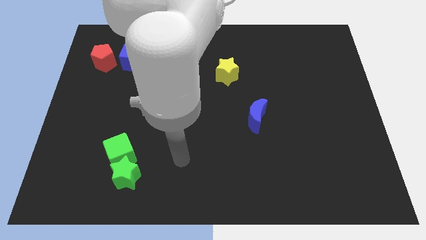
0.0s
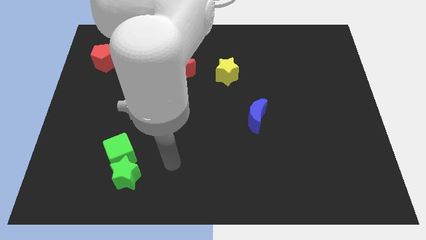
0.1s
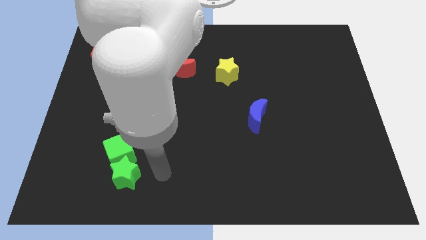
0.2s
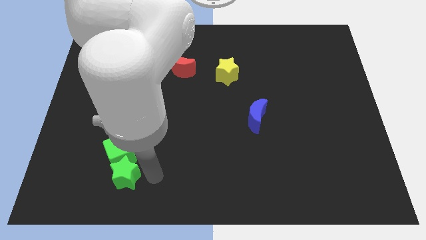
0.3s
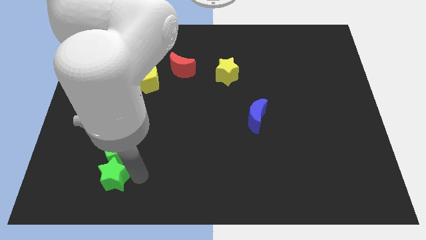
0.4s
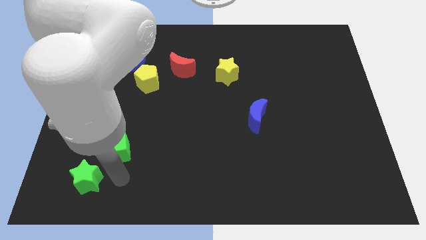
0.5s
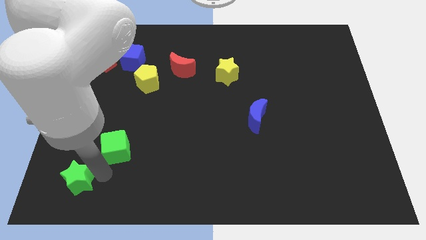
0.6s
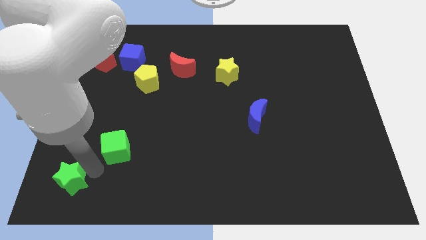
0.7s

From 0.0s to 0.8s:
separate the green cube from the green star

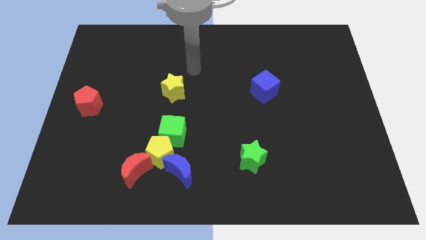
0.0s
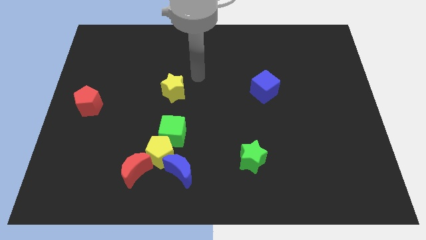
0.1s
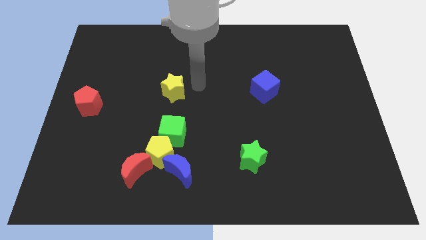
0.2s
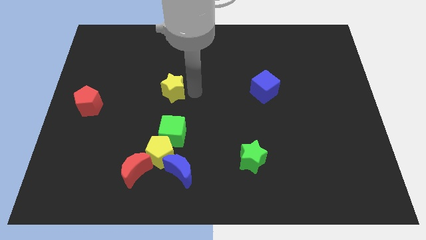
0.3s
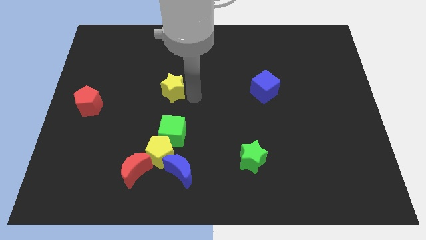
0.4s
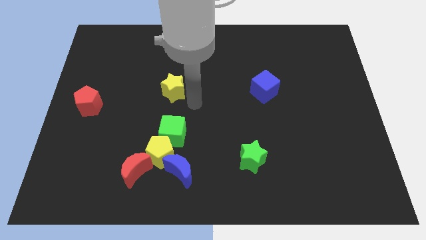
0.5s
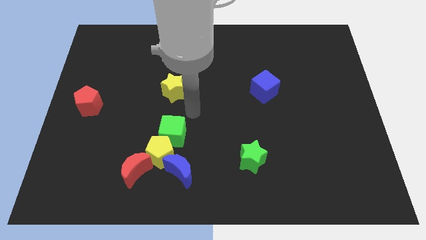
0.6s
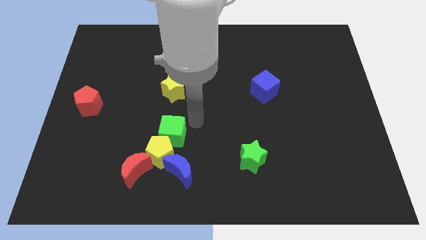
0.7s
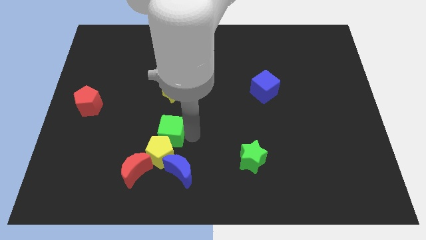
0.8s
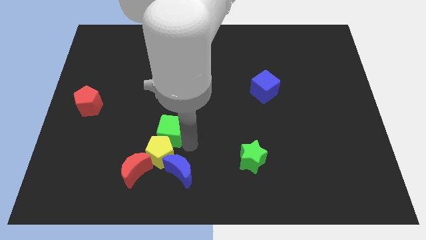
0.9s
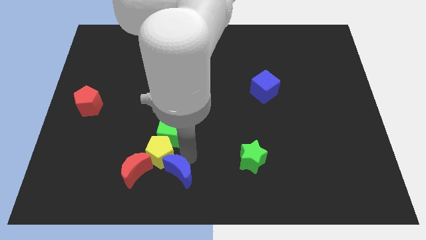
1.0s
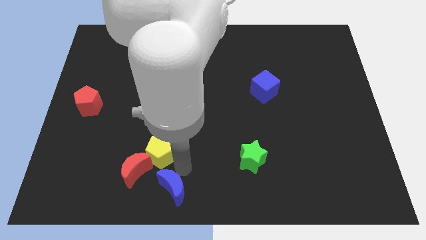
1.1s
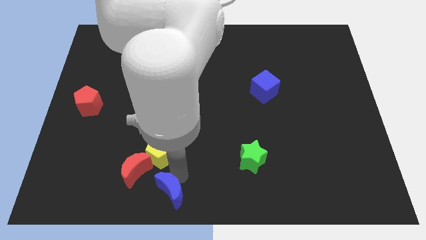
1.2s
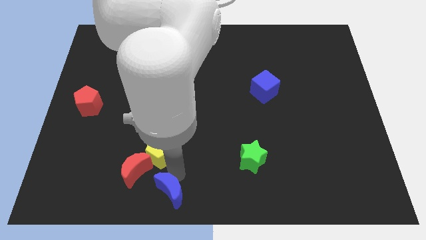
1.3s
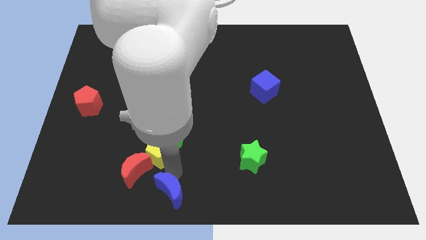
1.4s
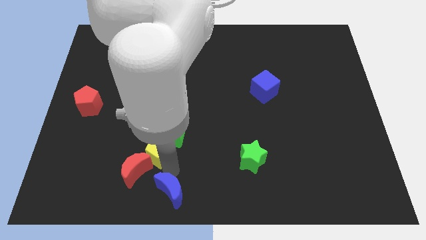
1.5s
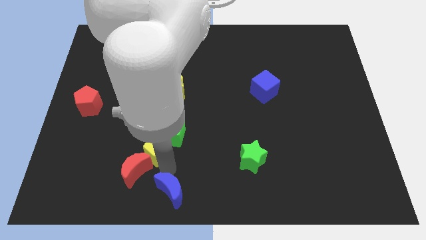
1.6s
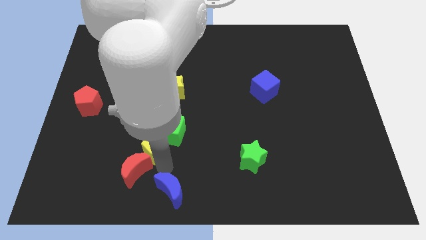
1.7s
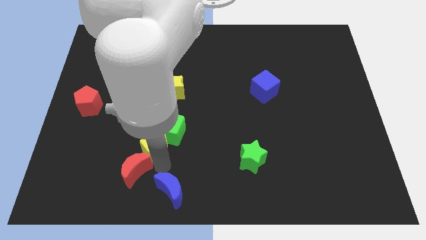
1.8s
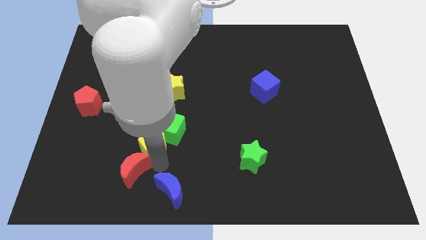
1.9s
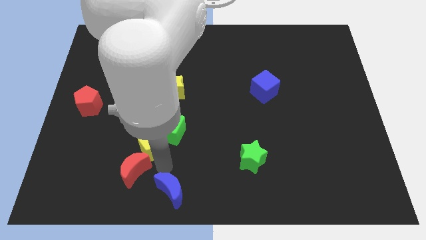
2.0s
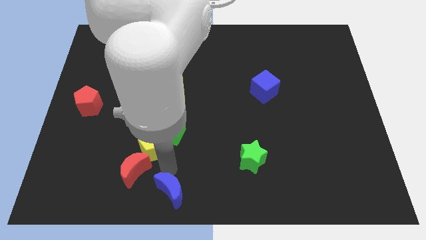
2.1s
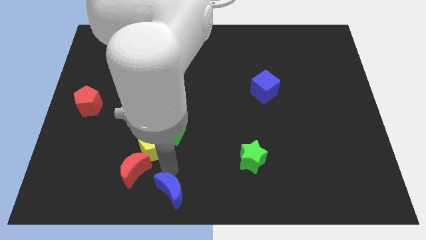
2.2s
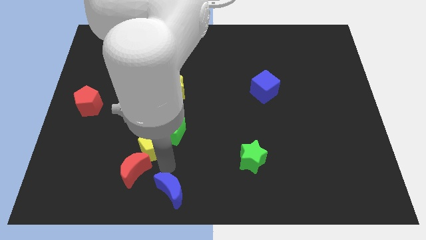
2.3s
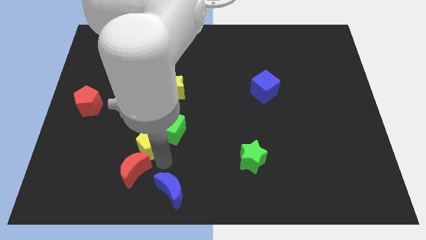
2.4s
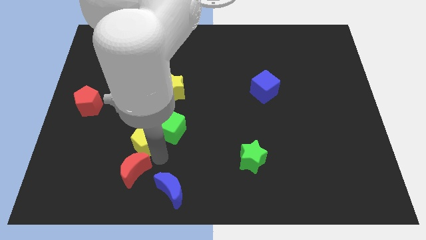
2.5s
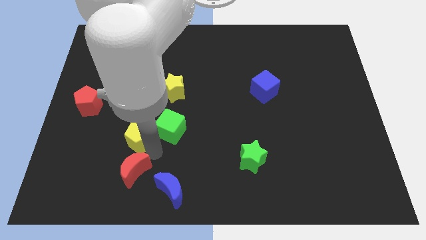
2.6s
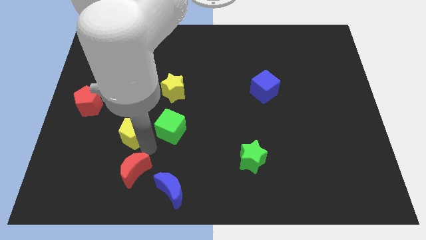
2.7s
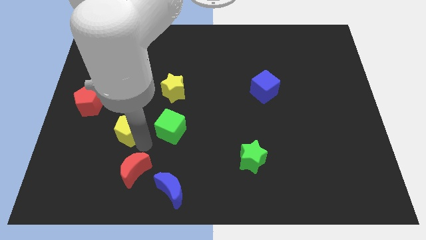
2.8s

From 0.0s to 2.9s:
move the yellow pentagon away from the green cube, blue moon, and red moon

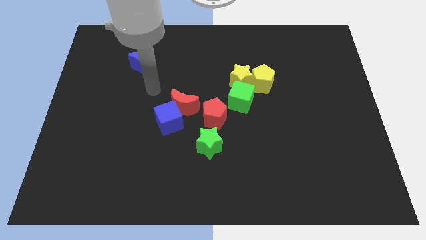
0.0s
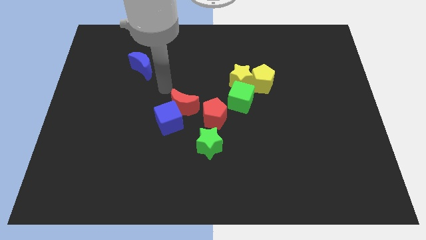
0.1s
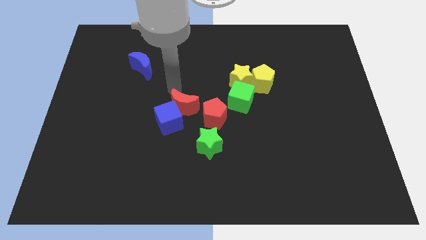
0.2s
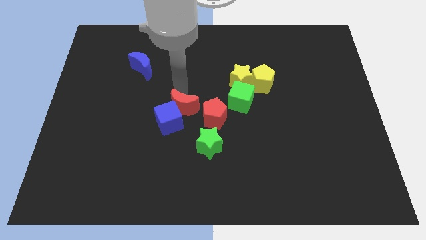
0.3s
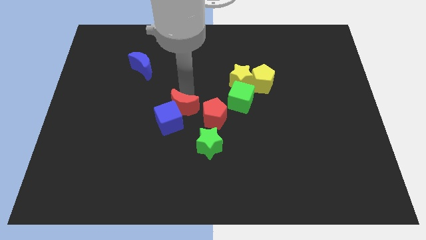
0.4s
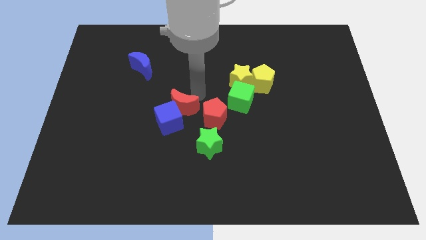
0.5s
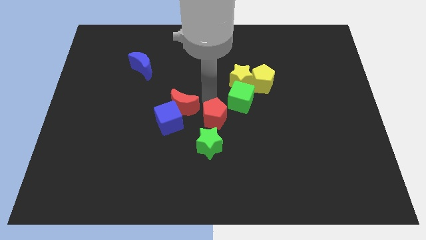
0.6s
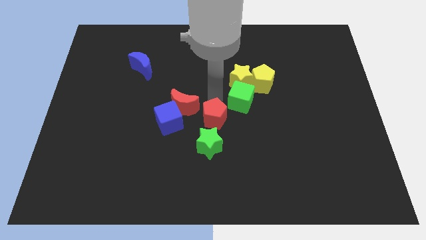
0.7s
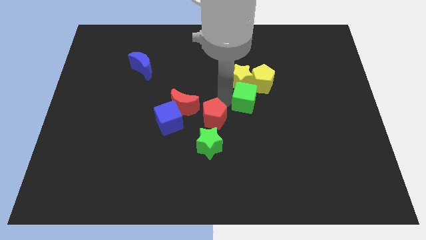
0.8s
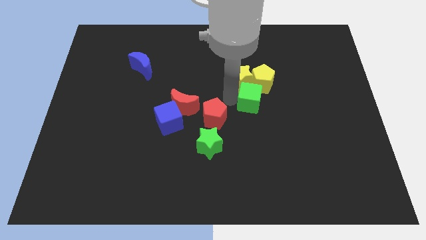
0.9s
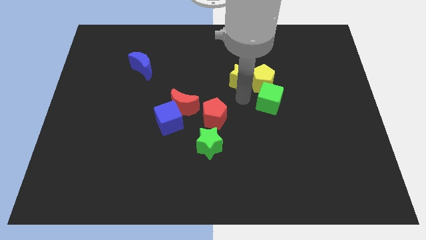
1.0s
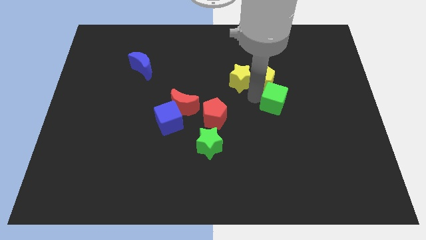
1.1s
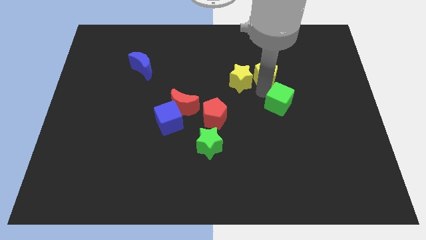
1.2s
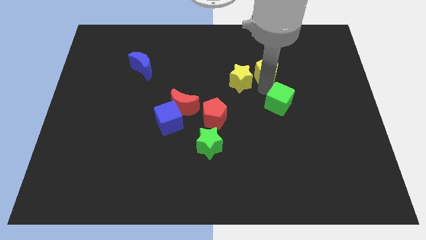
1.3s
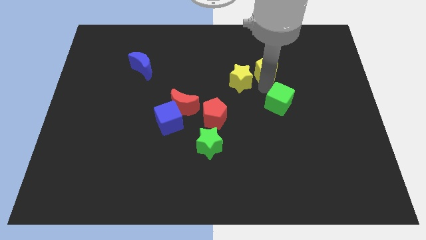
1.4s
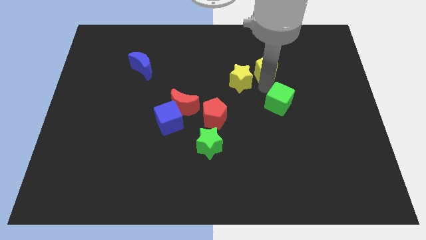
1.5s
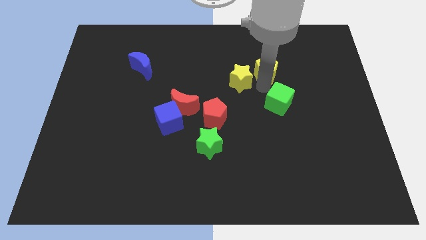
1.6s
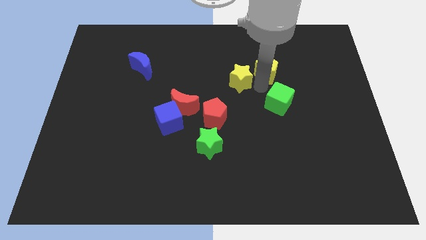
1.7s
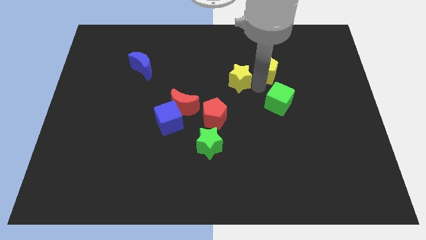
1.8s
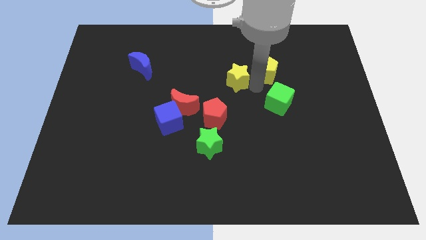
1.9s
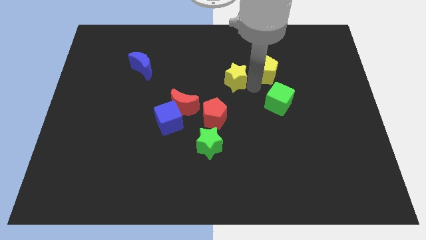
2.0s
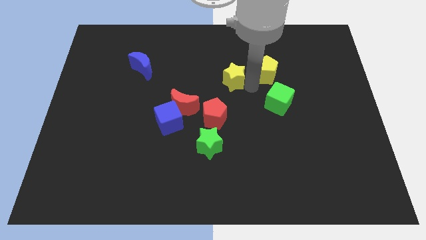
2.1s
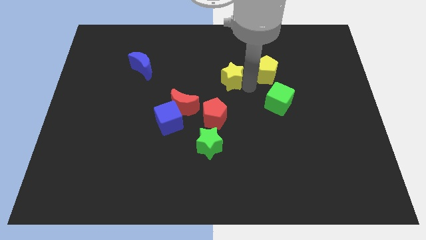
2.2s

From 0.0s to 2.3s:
move the yellow star away from the yellow pentagon and green cube

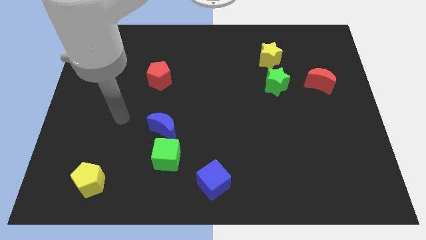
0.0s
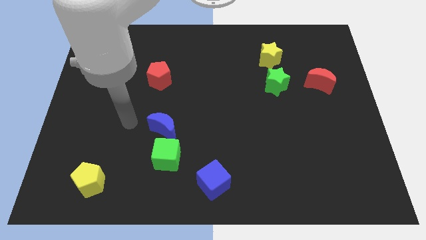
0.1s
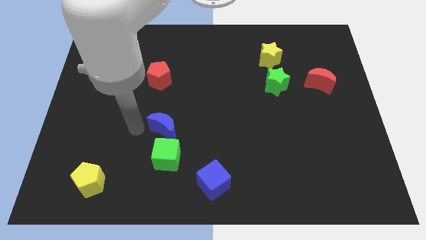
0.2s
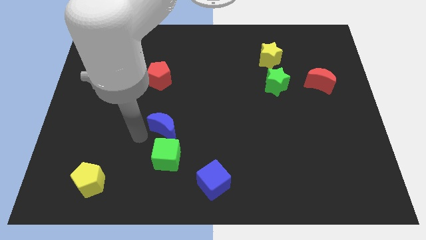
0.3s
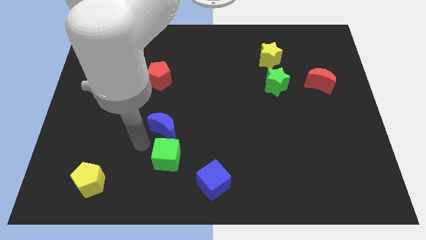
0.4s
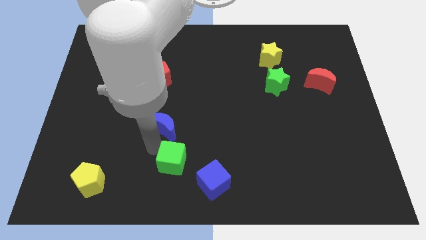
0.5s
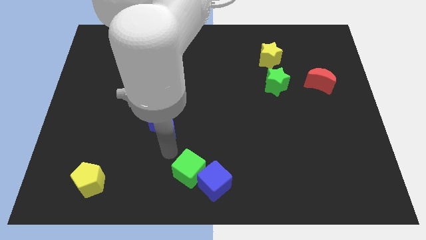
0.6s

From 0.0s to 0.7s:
move the blue moon away from the green cube

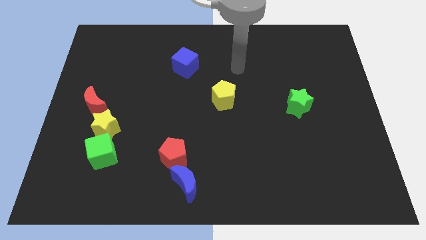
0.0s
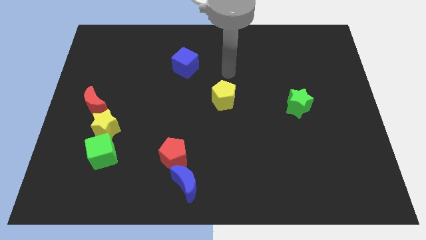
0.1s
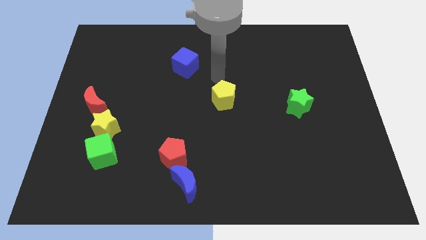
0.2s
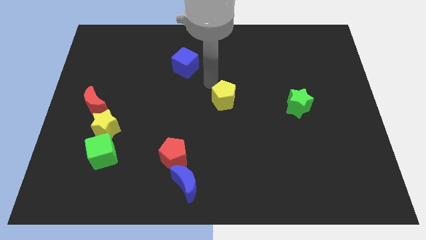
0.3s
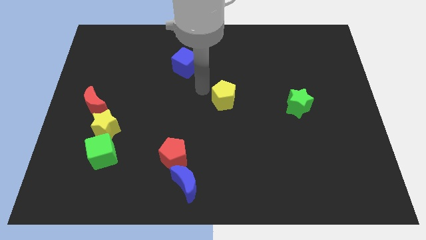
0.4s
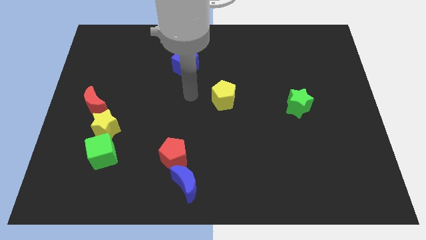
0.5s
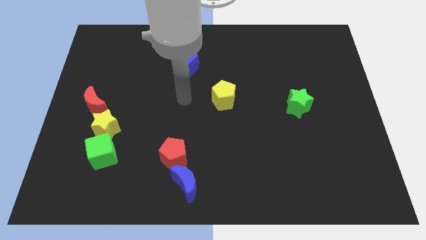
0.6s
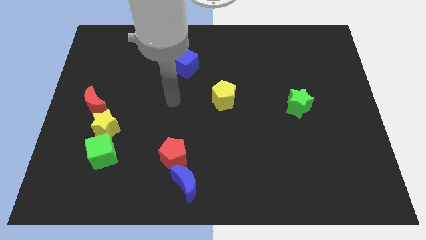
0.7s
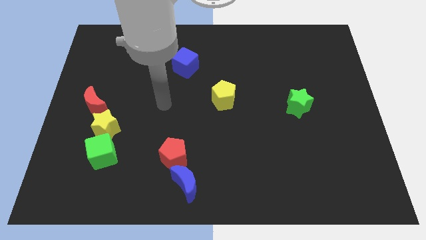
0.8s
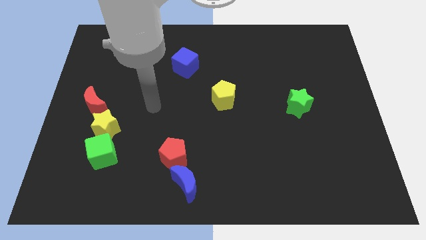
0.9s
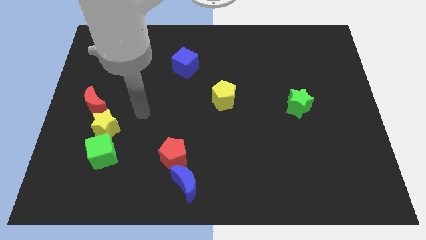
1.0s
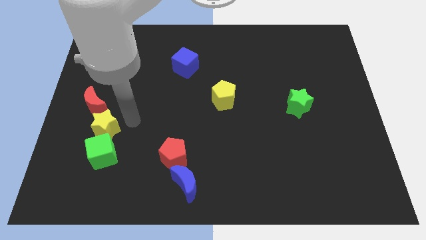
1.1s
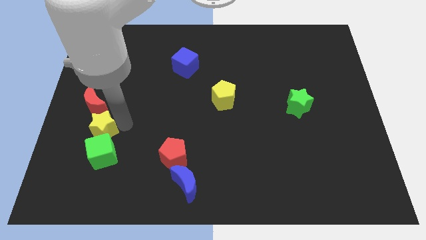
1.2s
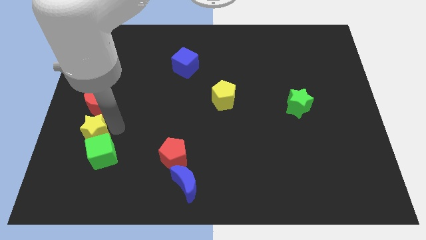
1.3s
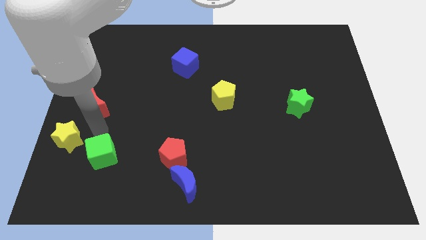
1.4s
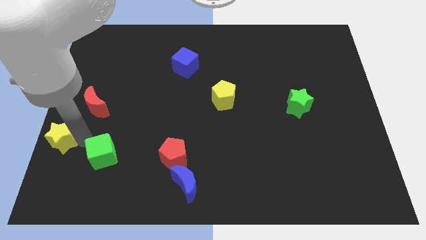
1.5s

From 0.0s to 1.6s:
move the green cube away from the yellow star

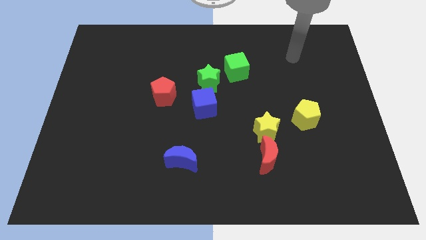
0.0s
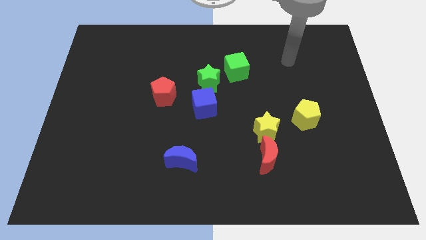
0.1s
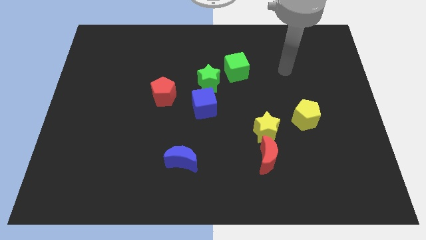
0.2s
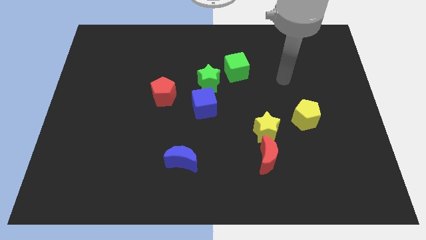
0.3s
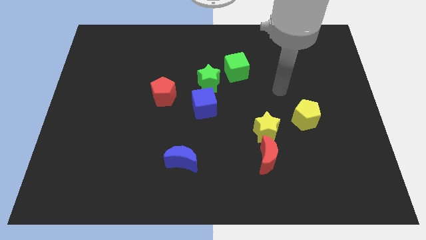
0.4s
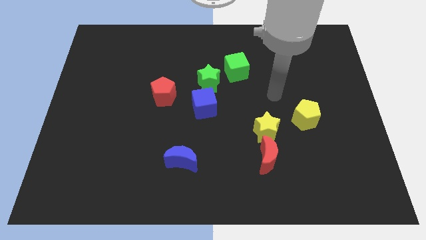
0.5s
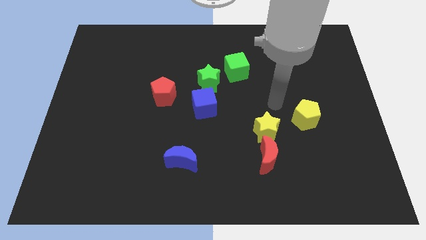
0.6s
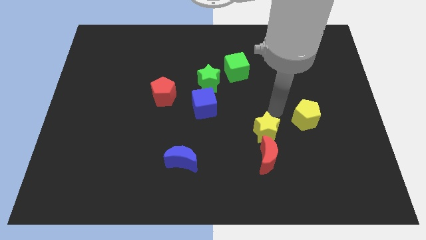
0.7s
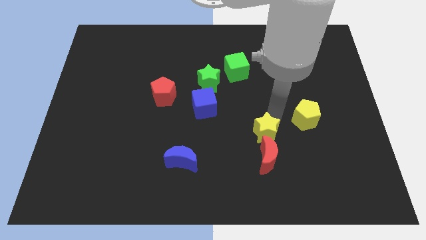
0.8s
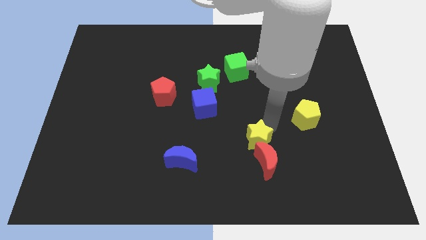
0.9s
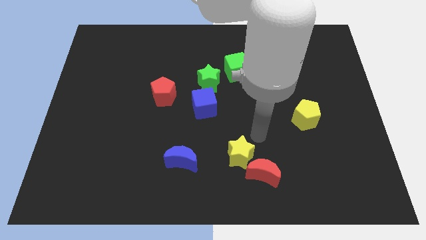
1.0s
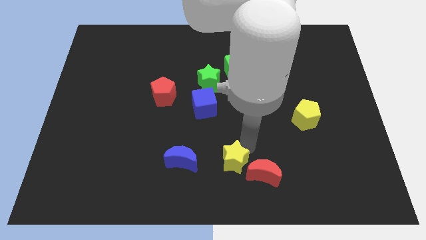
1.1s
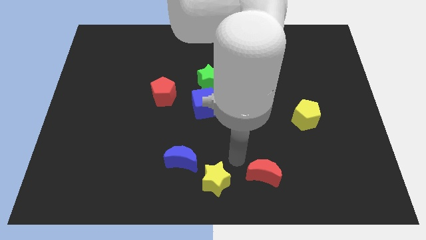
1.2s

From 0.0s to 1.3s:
separate the red moon from the yellow star
